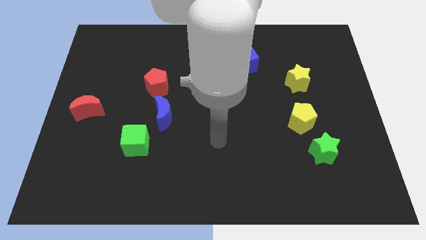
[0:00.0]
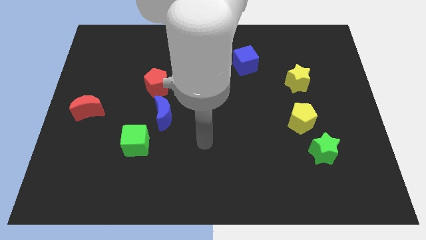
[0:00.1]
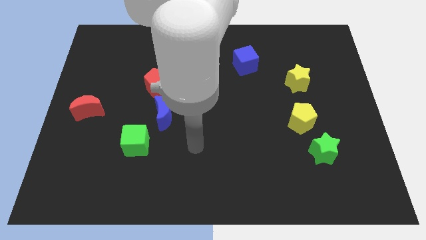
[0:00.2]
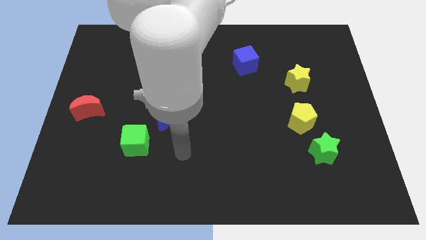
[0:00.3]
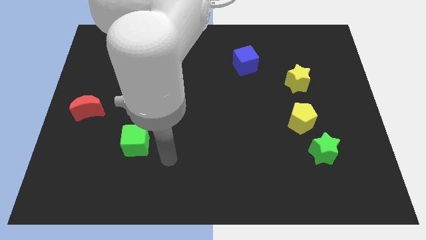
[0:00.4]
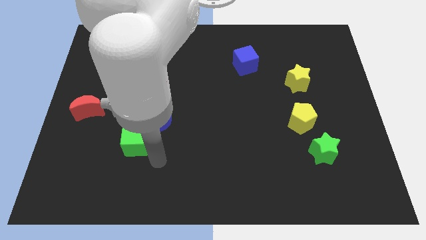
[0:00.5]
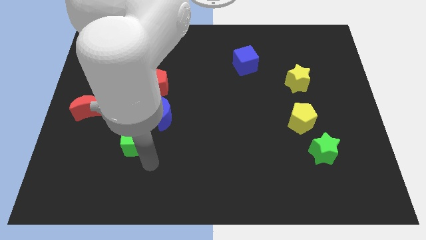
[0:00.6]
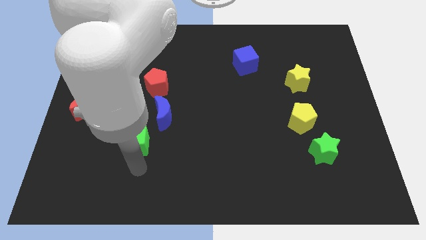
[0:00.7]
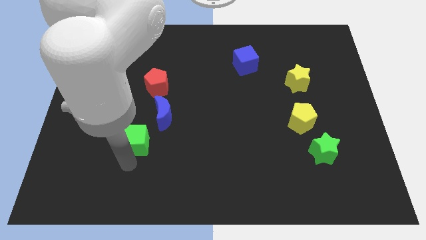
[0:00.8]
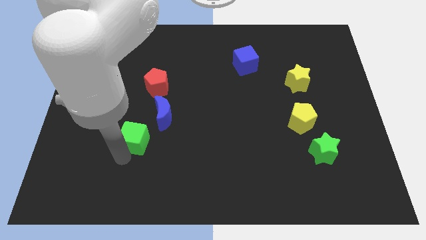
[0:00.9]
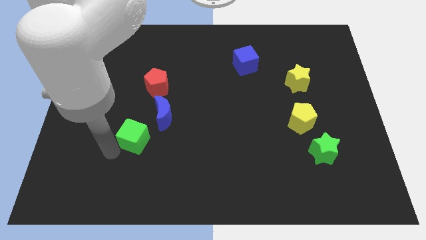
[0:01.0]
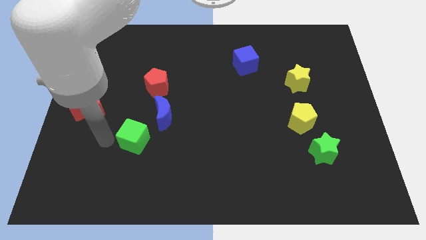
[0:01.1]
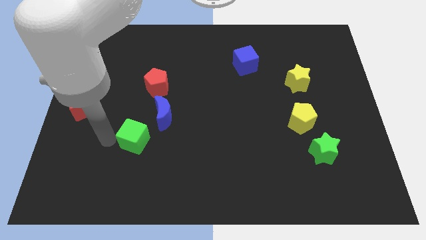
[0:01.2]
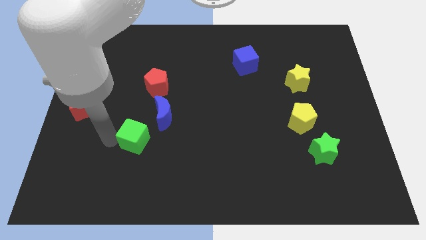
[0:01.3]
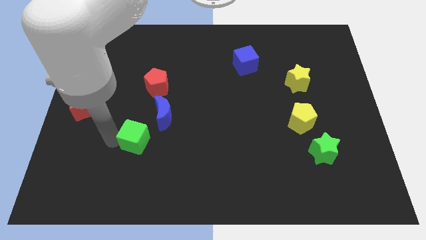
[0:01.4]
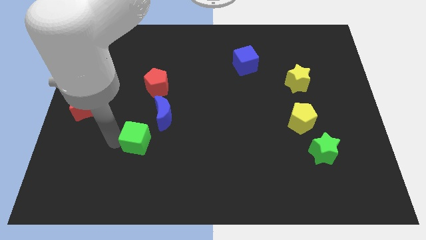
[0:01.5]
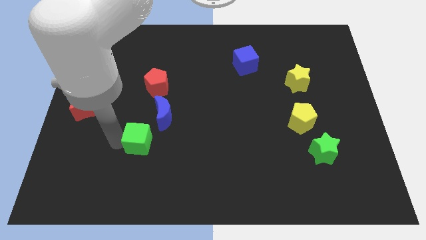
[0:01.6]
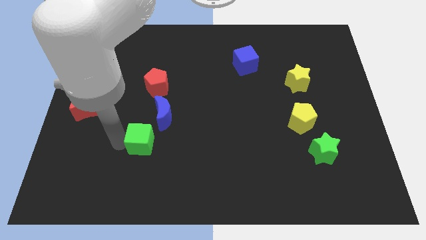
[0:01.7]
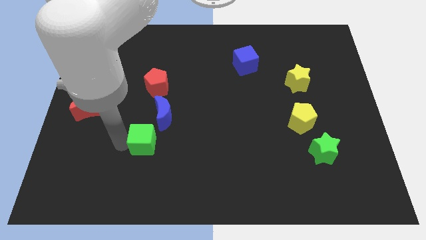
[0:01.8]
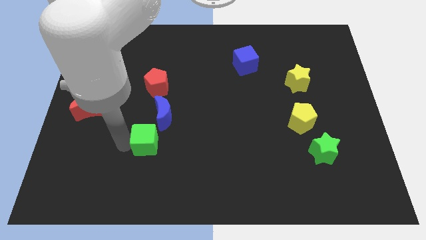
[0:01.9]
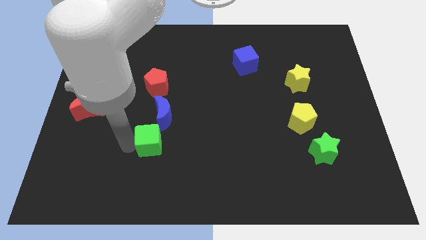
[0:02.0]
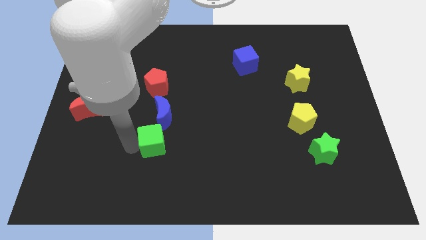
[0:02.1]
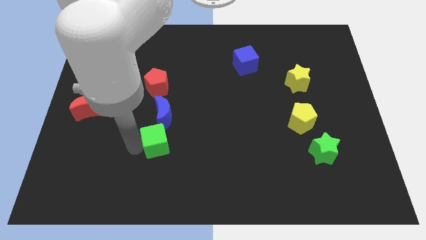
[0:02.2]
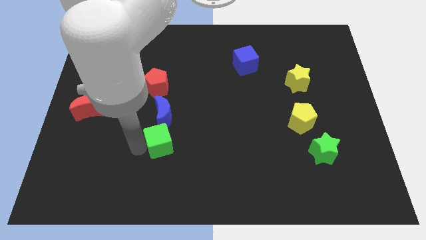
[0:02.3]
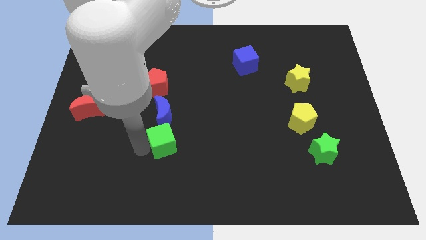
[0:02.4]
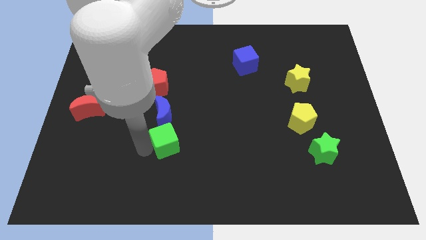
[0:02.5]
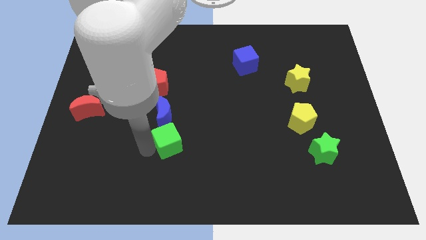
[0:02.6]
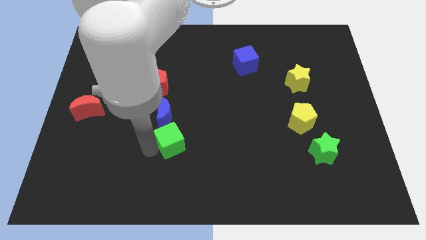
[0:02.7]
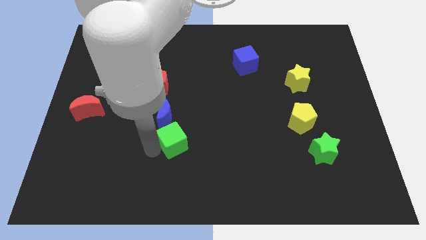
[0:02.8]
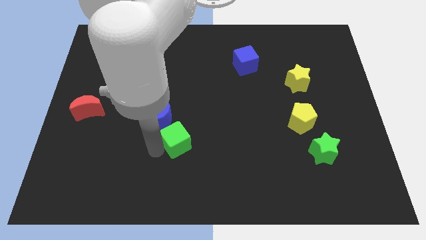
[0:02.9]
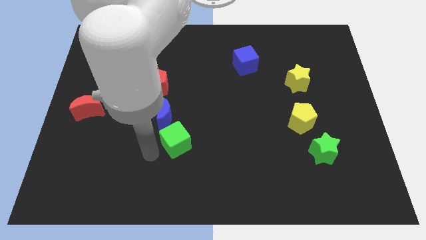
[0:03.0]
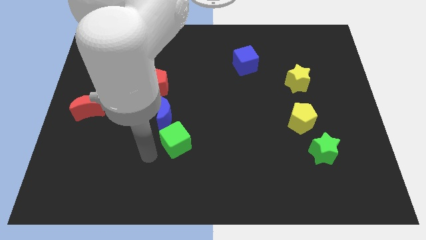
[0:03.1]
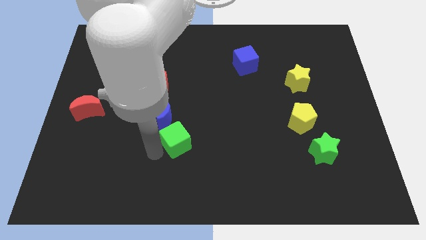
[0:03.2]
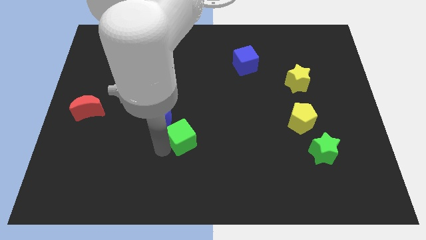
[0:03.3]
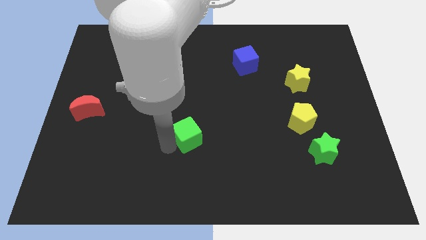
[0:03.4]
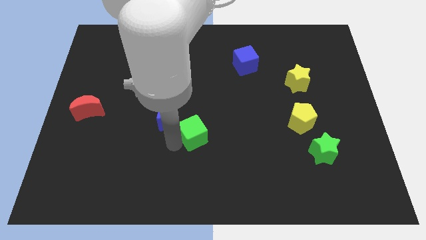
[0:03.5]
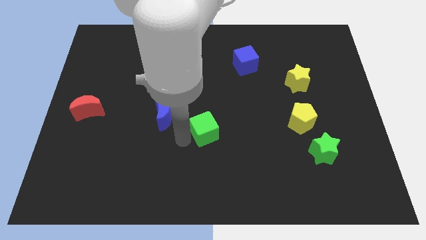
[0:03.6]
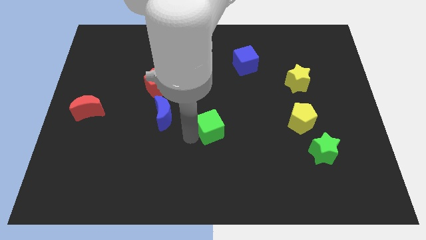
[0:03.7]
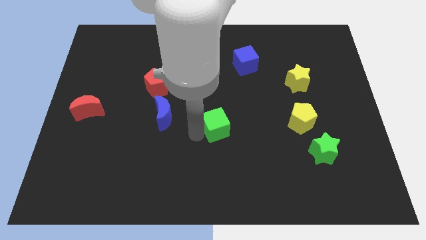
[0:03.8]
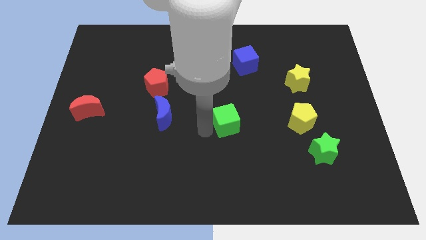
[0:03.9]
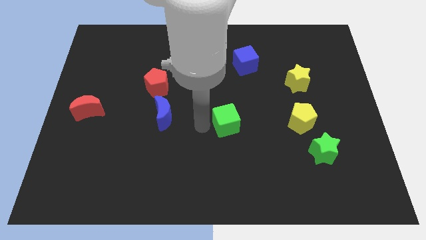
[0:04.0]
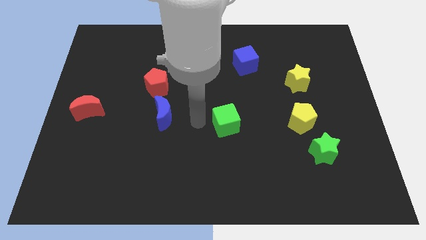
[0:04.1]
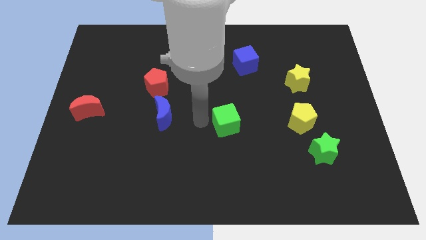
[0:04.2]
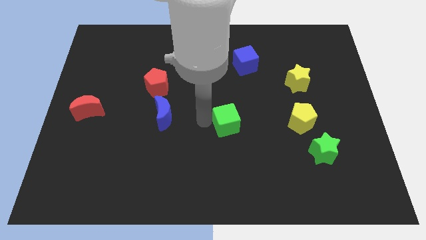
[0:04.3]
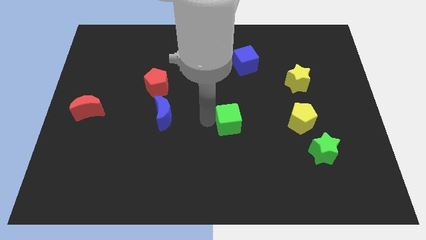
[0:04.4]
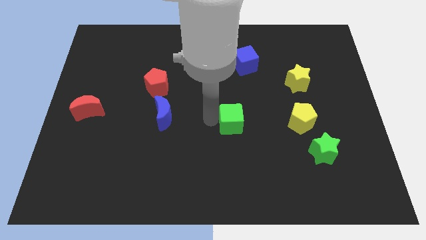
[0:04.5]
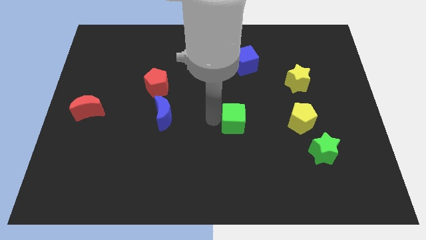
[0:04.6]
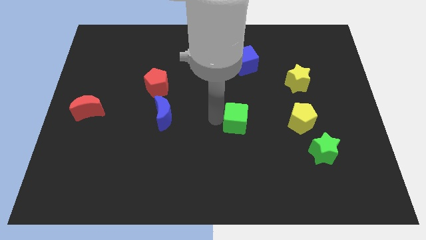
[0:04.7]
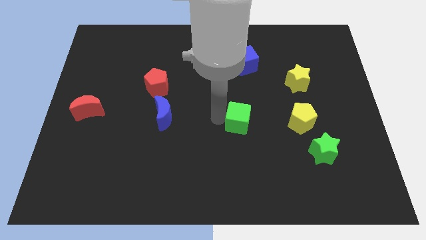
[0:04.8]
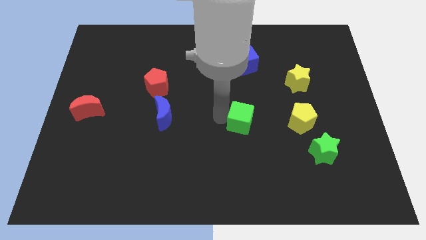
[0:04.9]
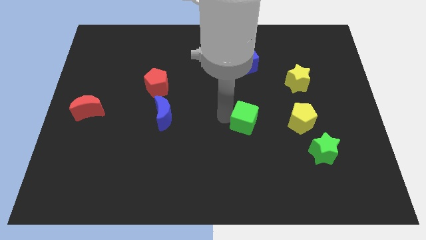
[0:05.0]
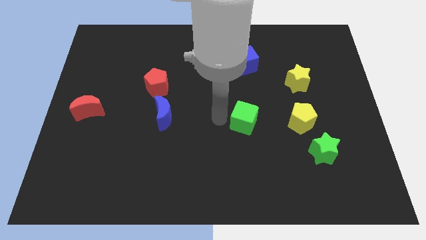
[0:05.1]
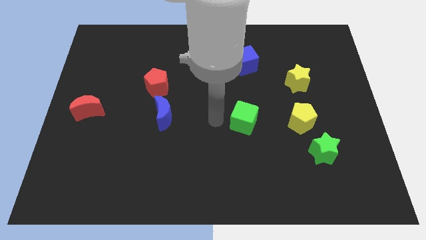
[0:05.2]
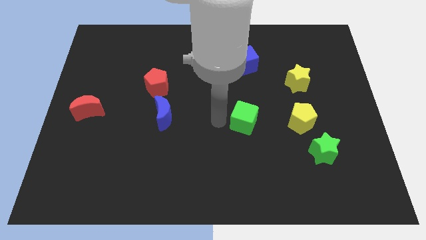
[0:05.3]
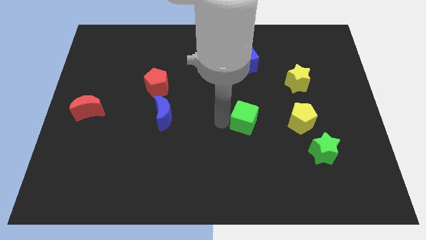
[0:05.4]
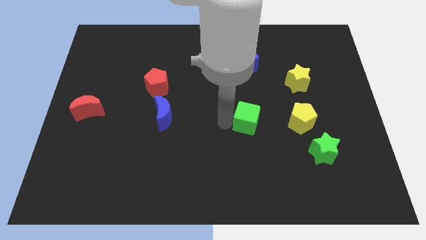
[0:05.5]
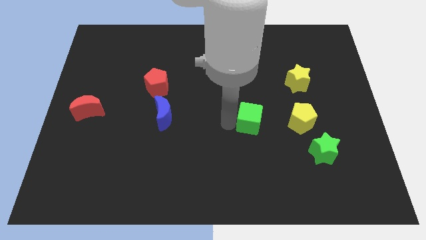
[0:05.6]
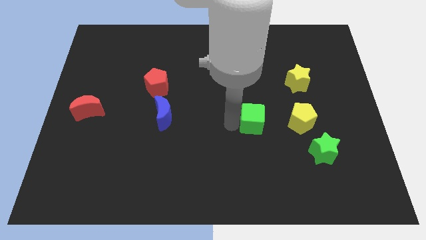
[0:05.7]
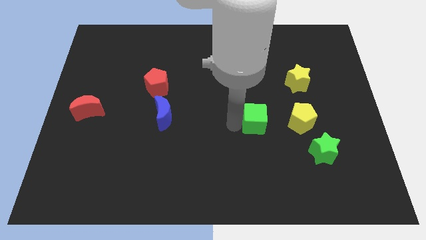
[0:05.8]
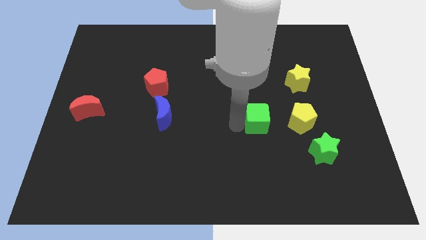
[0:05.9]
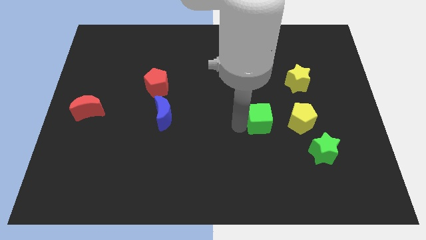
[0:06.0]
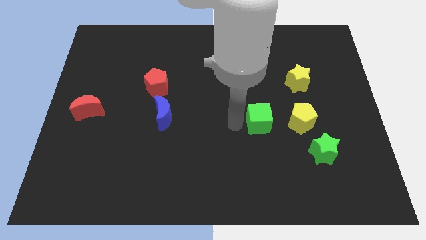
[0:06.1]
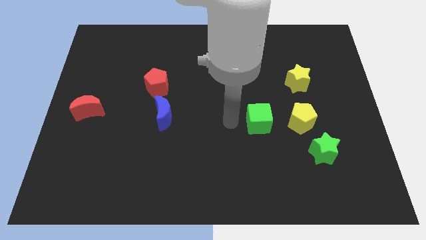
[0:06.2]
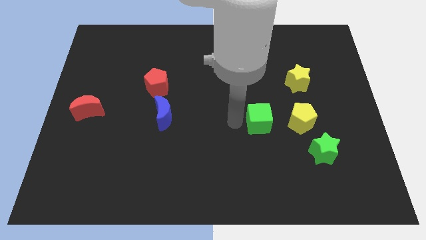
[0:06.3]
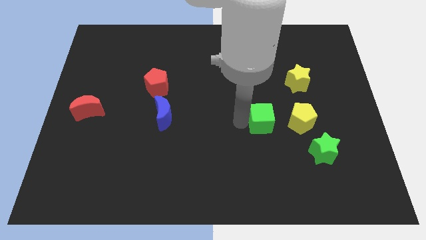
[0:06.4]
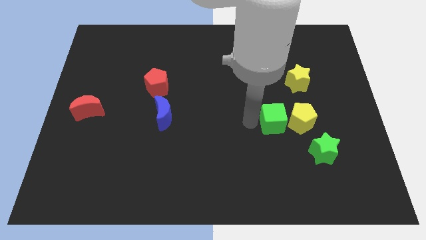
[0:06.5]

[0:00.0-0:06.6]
slide the green cube towards the yellow pentagon
